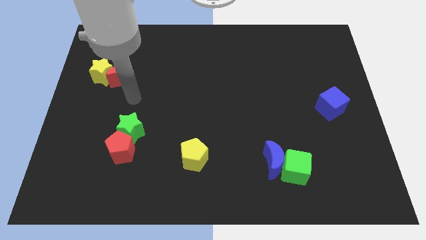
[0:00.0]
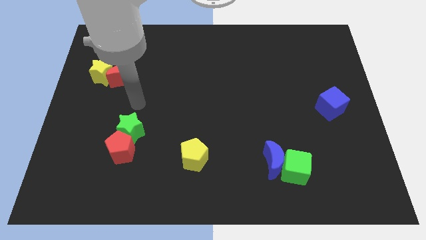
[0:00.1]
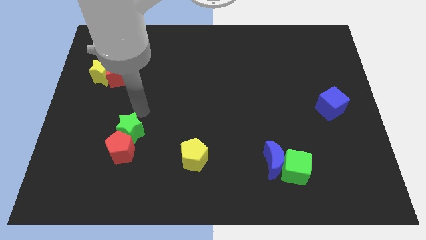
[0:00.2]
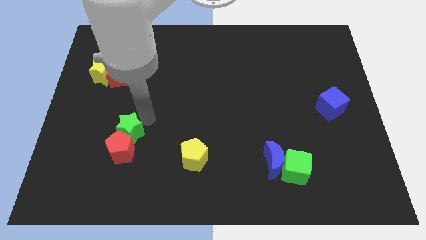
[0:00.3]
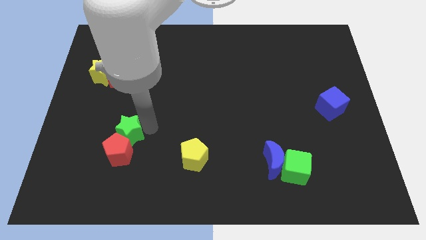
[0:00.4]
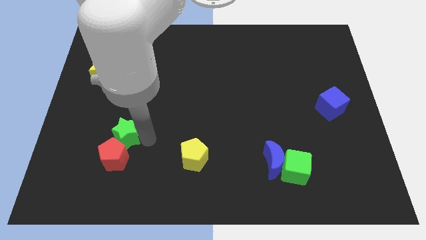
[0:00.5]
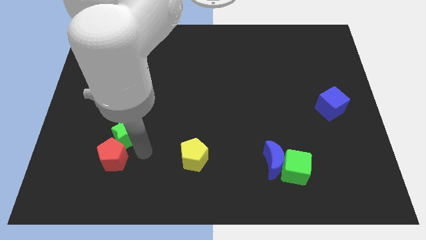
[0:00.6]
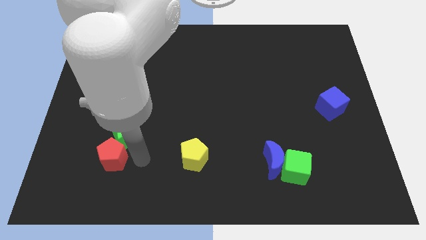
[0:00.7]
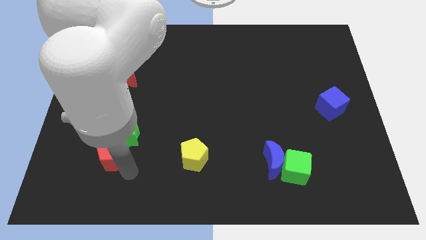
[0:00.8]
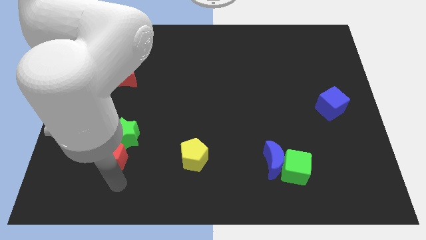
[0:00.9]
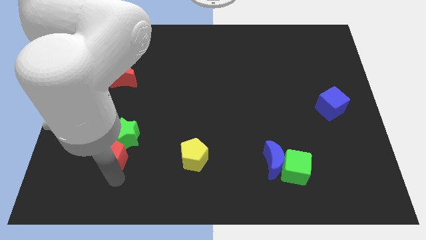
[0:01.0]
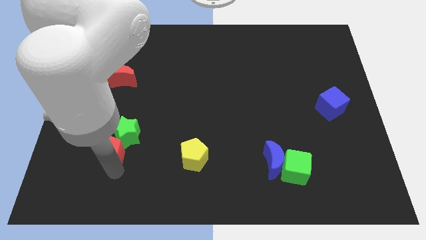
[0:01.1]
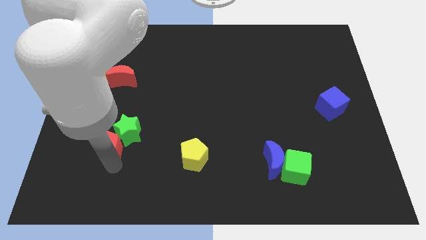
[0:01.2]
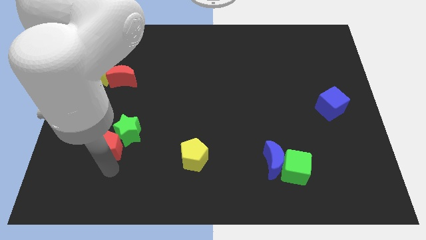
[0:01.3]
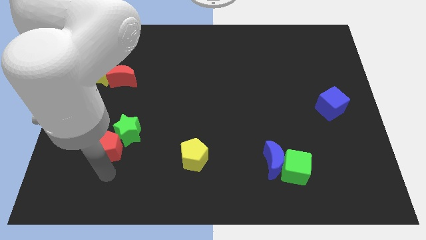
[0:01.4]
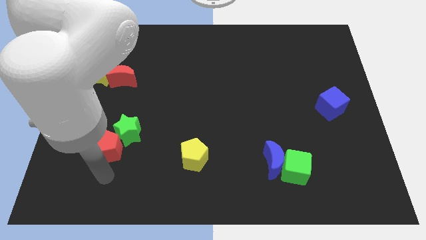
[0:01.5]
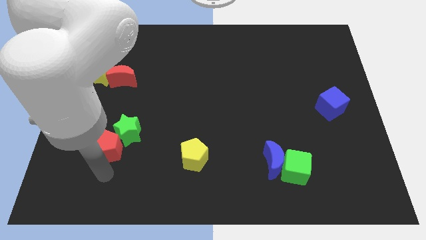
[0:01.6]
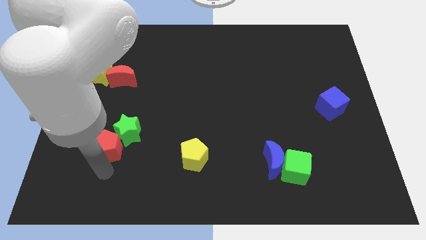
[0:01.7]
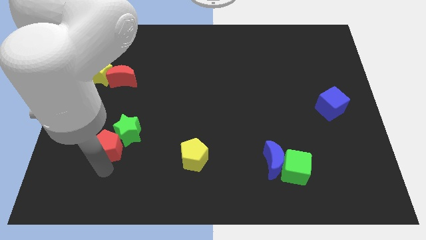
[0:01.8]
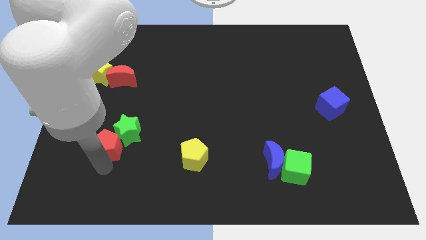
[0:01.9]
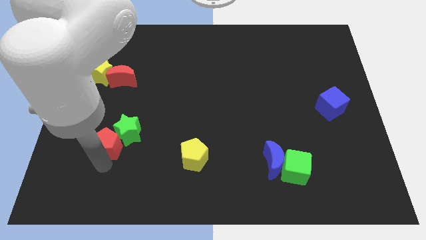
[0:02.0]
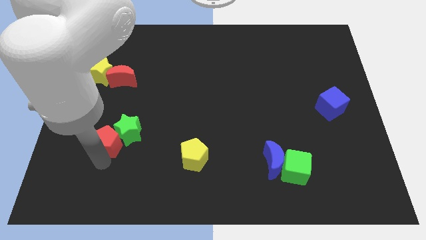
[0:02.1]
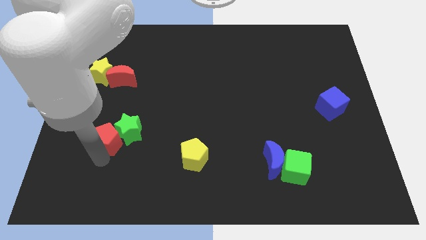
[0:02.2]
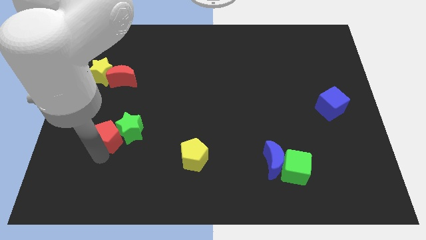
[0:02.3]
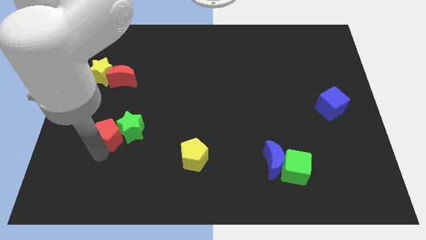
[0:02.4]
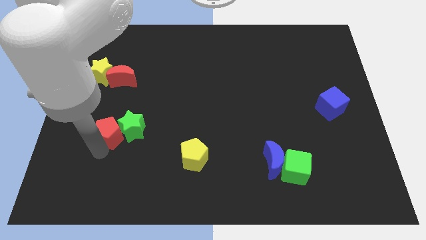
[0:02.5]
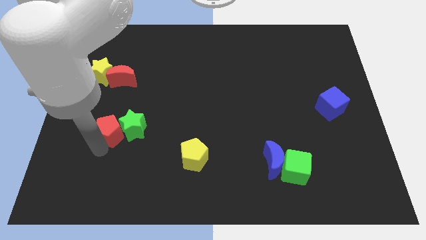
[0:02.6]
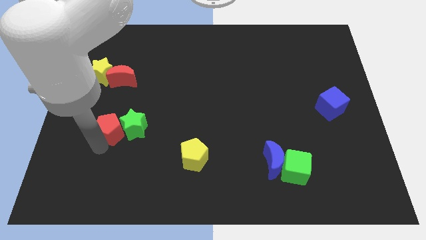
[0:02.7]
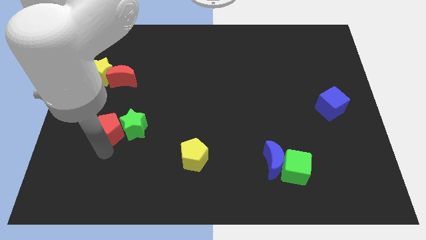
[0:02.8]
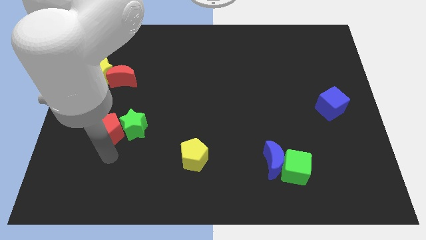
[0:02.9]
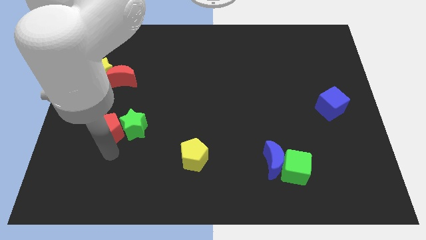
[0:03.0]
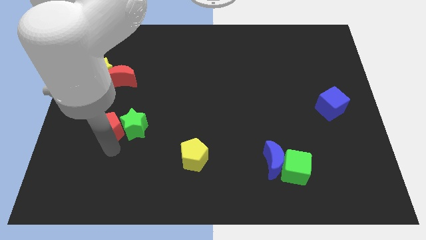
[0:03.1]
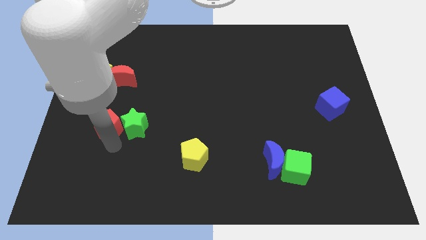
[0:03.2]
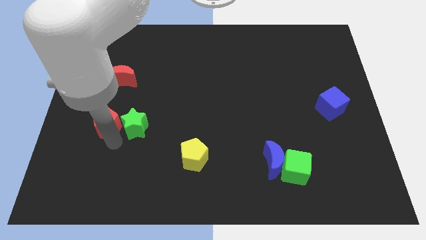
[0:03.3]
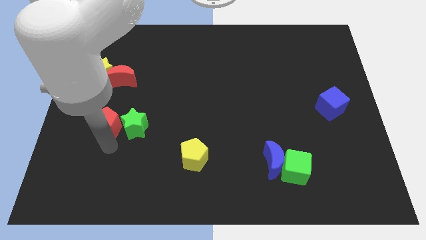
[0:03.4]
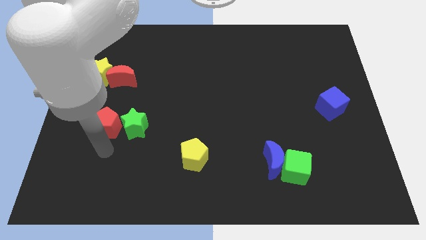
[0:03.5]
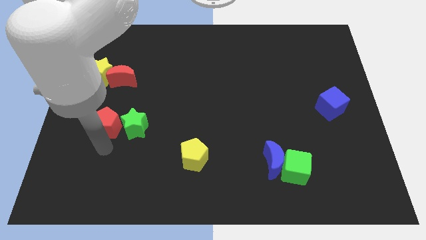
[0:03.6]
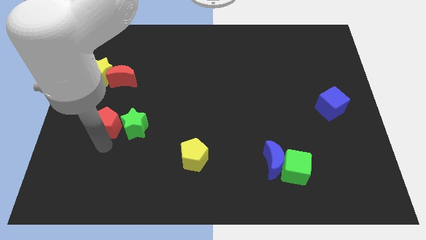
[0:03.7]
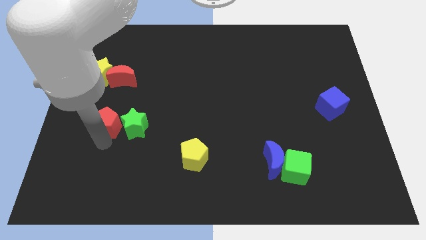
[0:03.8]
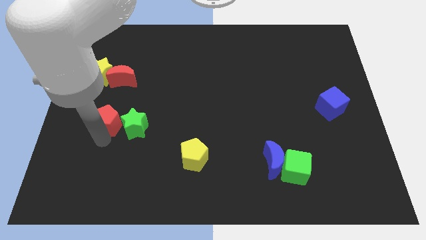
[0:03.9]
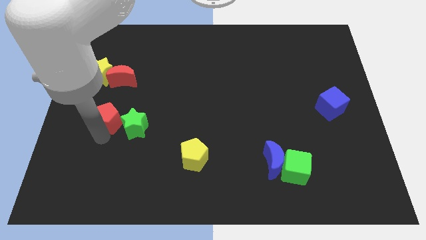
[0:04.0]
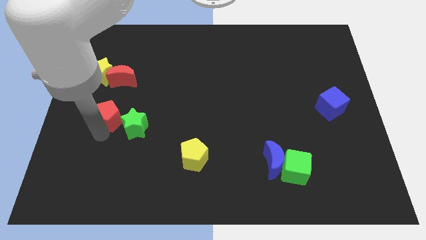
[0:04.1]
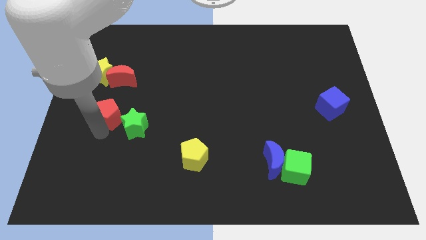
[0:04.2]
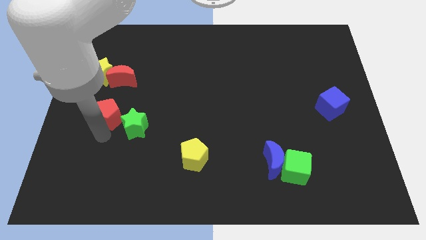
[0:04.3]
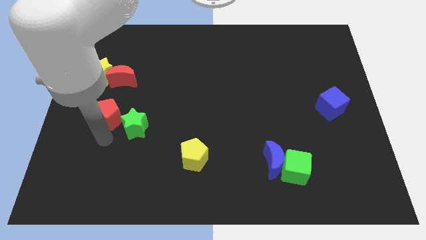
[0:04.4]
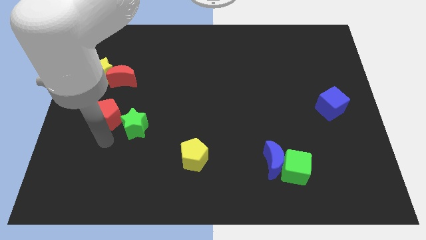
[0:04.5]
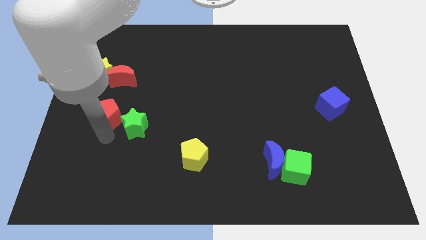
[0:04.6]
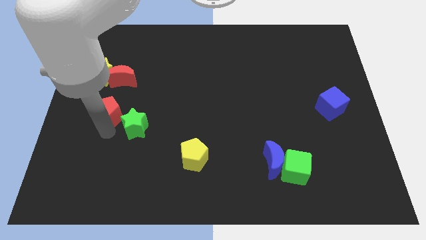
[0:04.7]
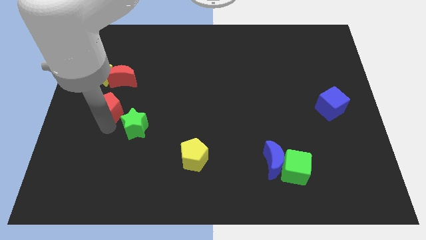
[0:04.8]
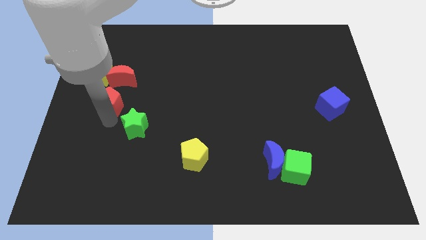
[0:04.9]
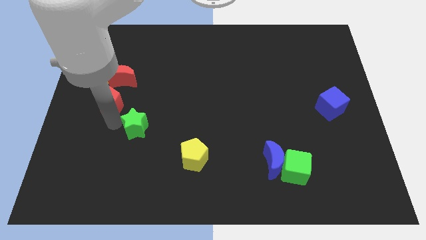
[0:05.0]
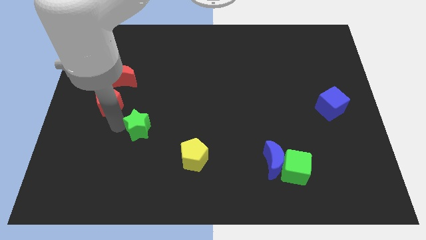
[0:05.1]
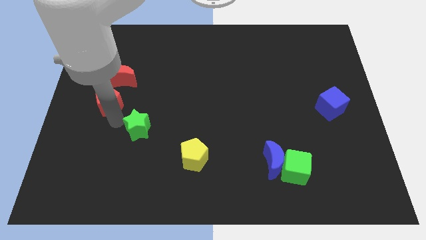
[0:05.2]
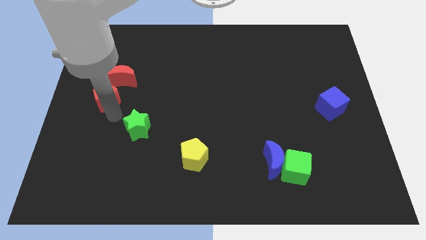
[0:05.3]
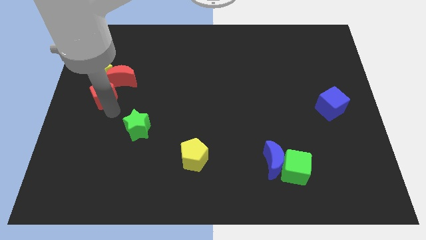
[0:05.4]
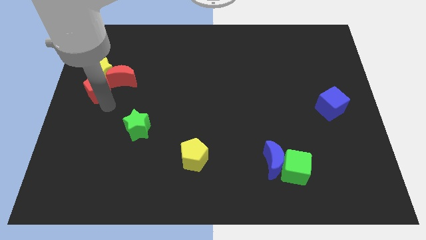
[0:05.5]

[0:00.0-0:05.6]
put the red pentagon to the yellow star

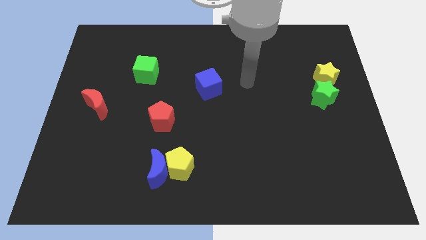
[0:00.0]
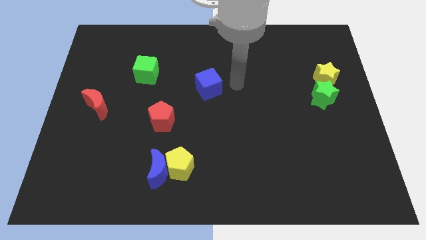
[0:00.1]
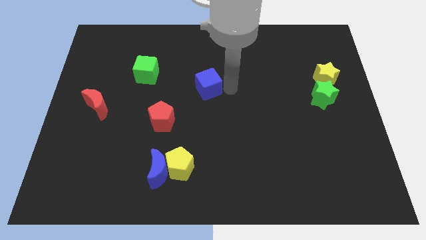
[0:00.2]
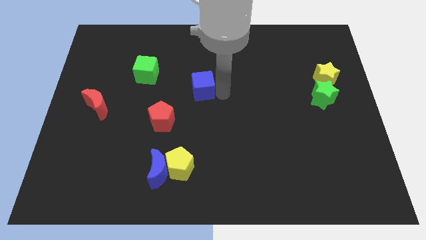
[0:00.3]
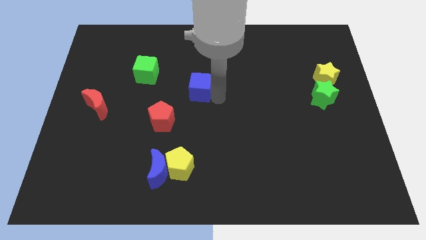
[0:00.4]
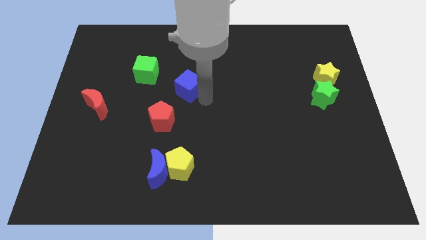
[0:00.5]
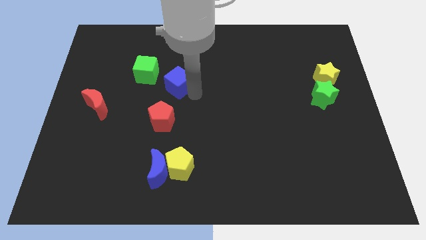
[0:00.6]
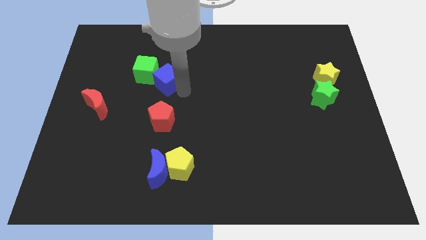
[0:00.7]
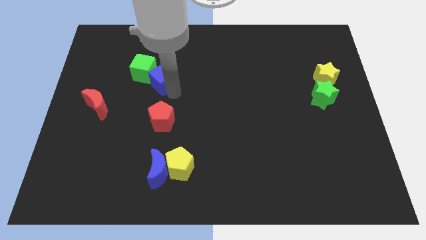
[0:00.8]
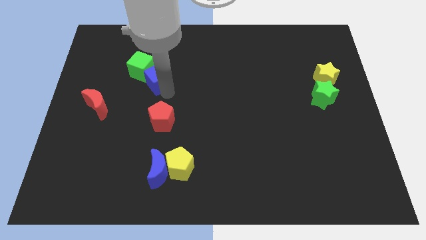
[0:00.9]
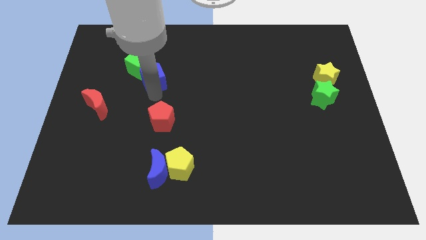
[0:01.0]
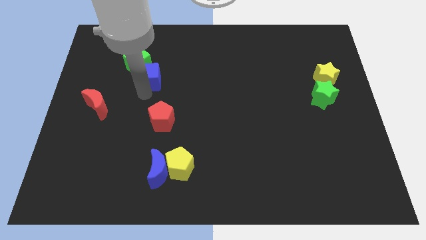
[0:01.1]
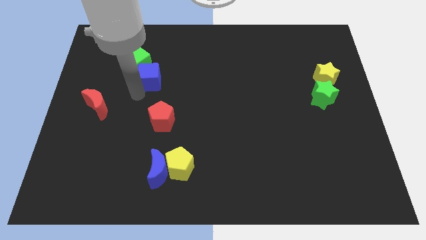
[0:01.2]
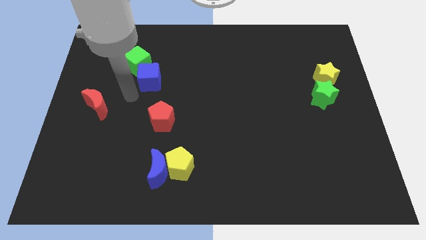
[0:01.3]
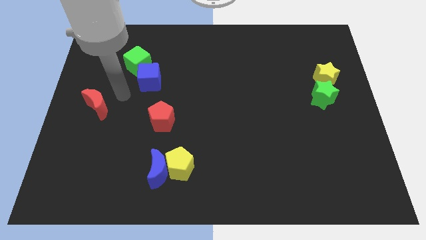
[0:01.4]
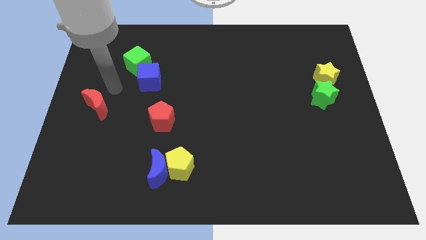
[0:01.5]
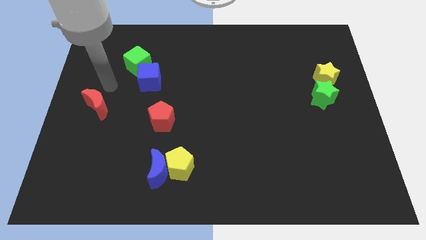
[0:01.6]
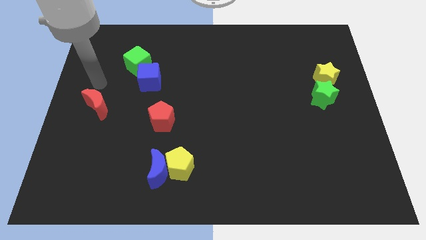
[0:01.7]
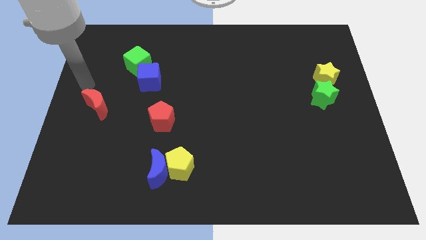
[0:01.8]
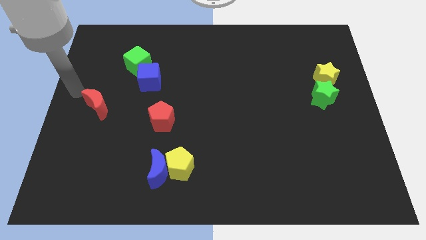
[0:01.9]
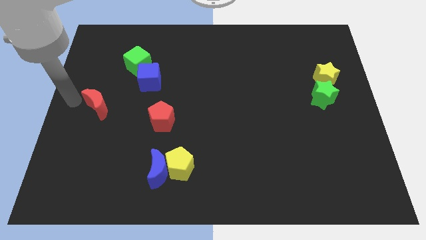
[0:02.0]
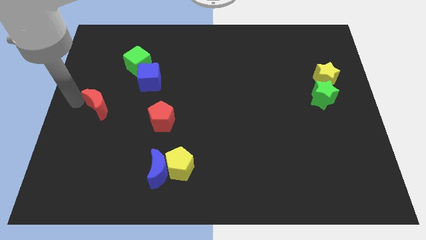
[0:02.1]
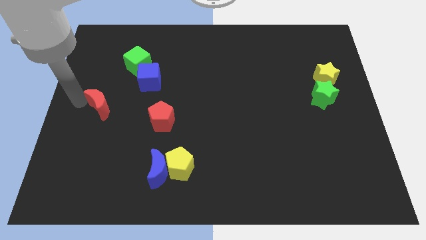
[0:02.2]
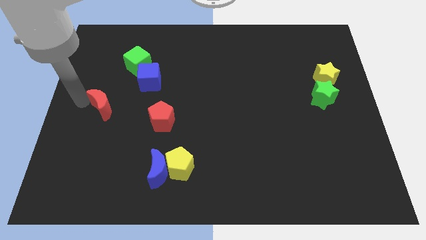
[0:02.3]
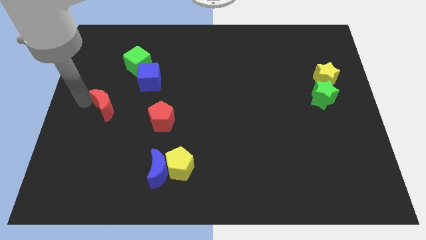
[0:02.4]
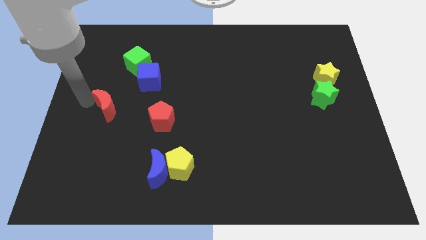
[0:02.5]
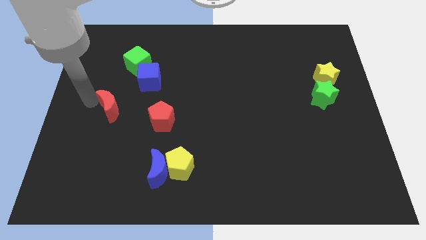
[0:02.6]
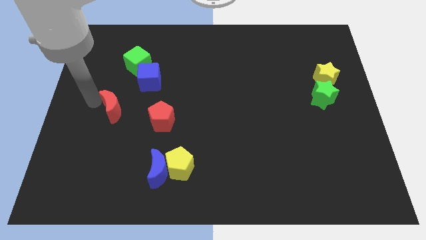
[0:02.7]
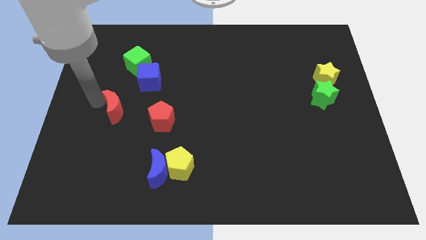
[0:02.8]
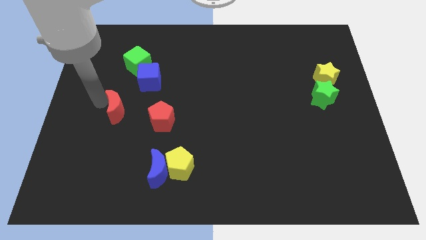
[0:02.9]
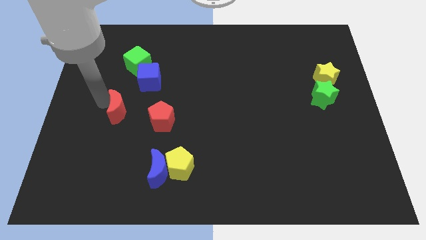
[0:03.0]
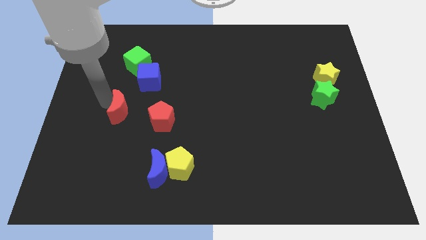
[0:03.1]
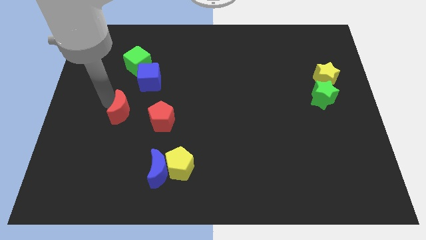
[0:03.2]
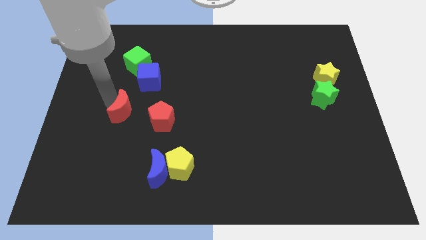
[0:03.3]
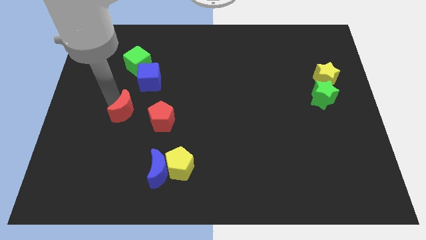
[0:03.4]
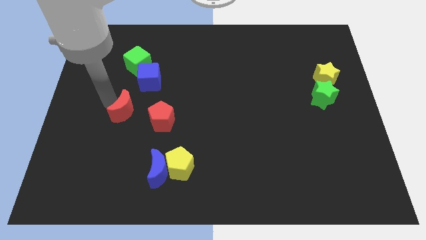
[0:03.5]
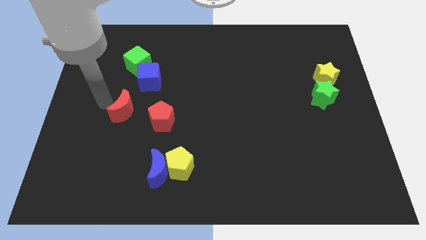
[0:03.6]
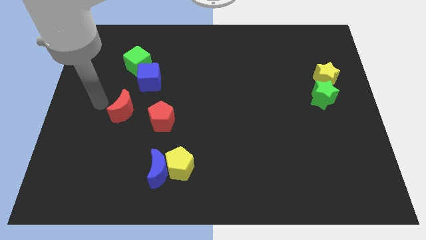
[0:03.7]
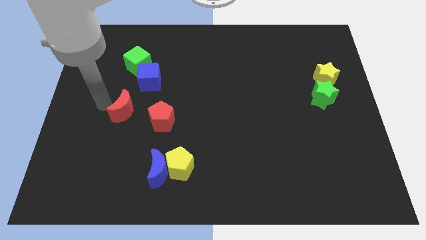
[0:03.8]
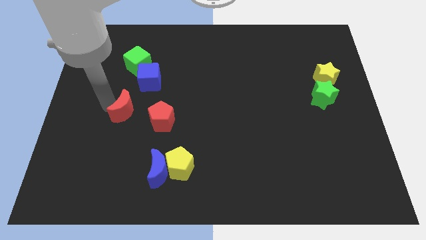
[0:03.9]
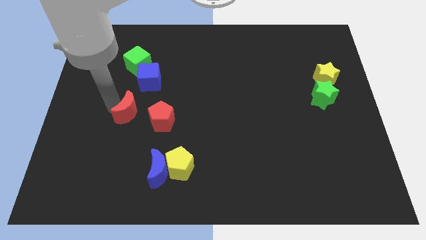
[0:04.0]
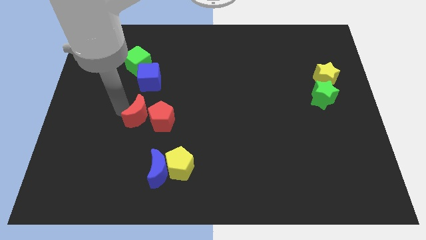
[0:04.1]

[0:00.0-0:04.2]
move the red moon next to the red pentagon
